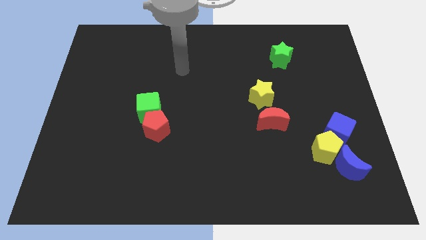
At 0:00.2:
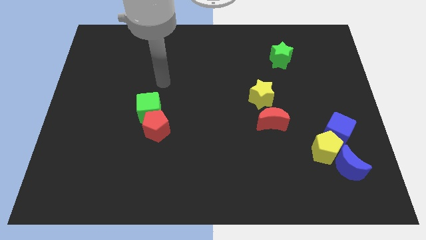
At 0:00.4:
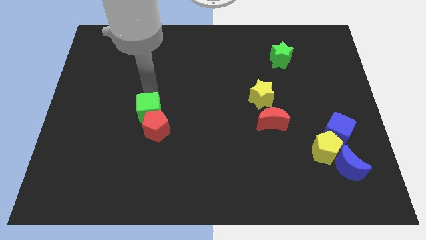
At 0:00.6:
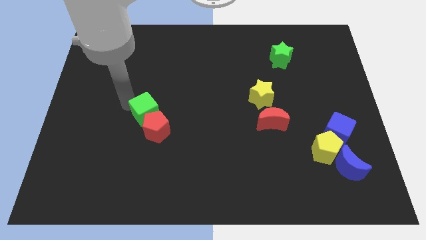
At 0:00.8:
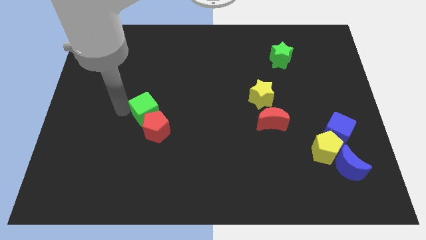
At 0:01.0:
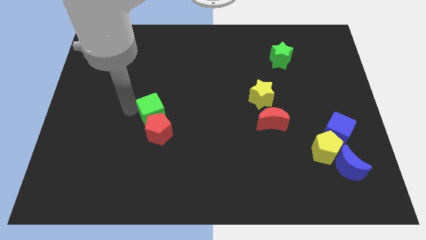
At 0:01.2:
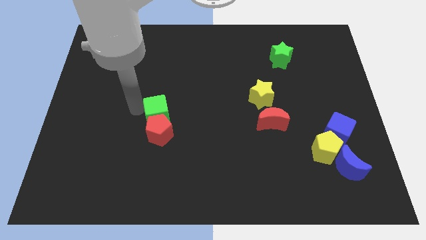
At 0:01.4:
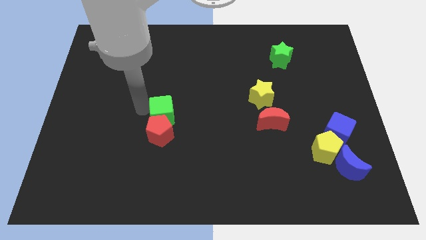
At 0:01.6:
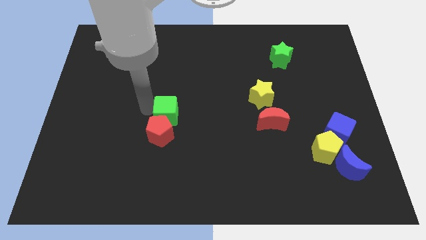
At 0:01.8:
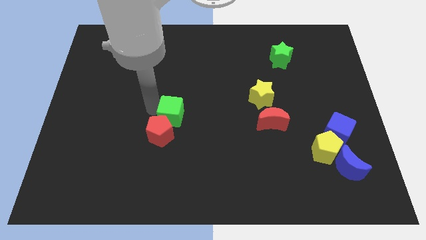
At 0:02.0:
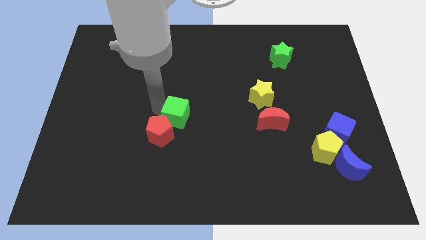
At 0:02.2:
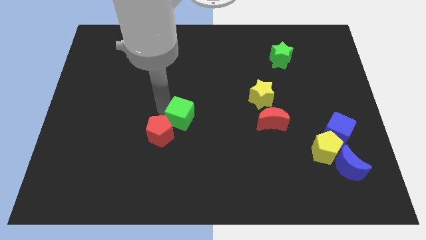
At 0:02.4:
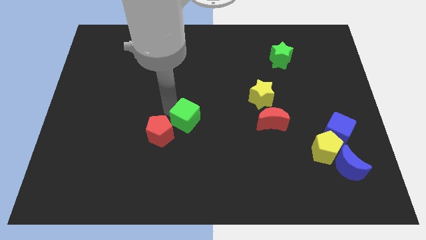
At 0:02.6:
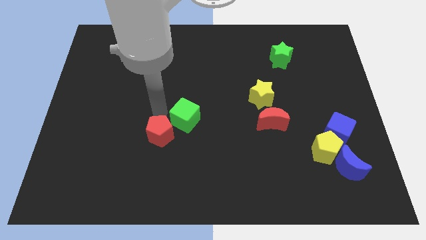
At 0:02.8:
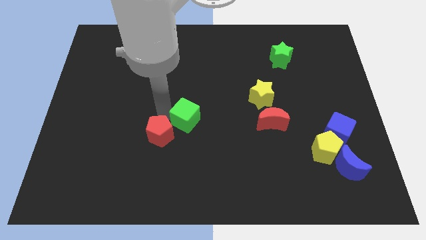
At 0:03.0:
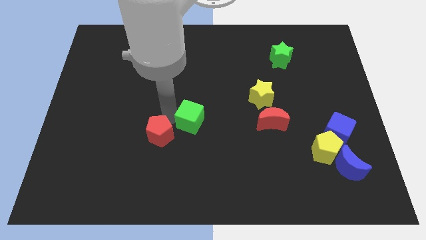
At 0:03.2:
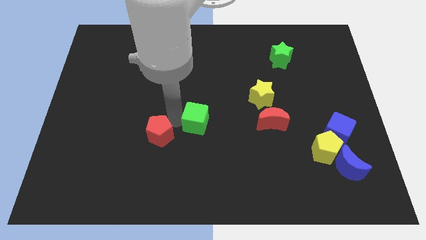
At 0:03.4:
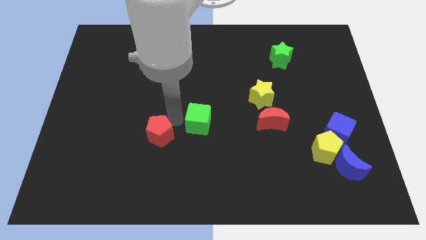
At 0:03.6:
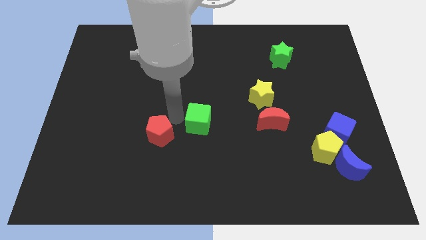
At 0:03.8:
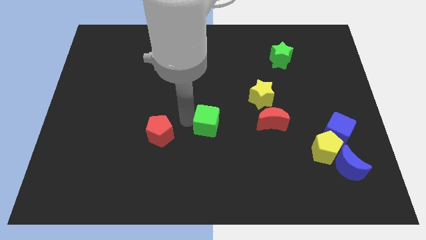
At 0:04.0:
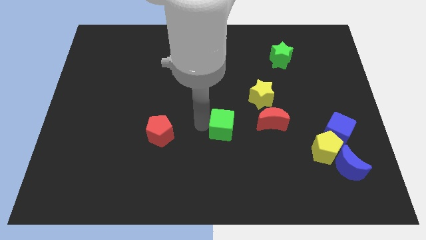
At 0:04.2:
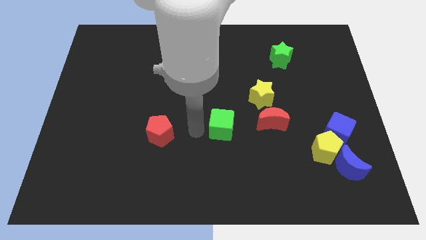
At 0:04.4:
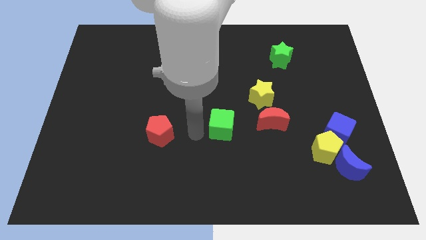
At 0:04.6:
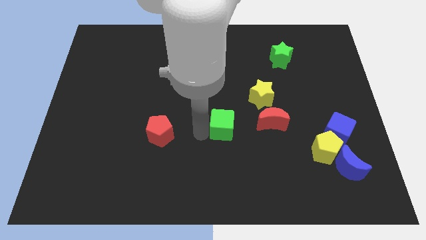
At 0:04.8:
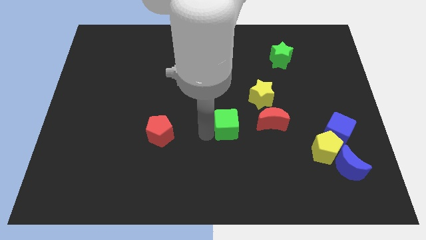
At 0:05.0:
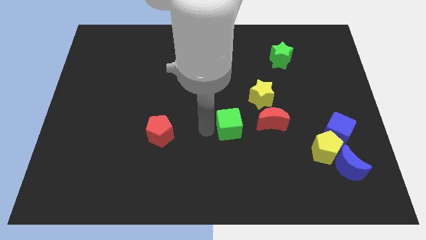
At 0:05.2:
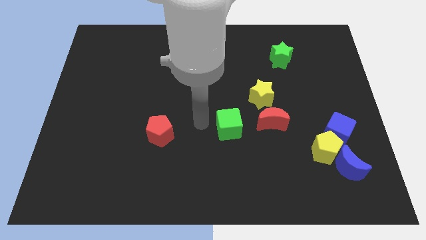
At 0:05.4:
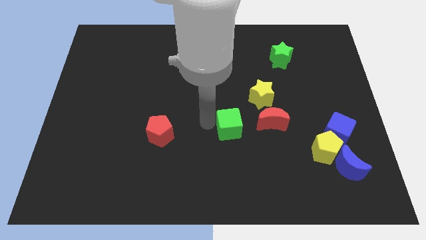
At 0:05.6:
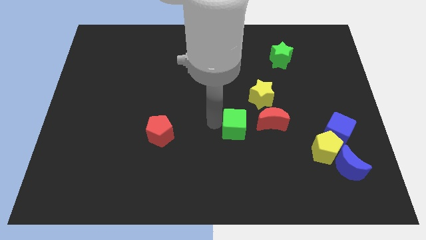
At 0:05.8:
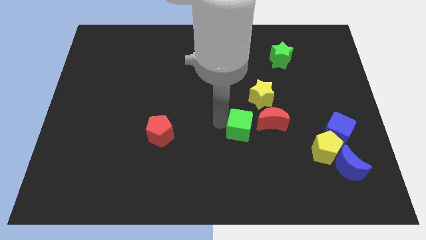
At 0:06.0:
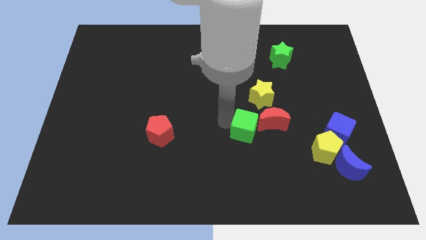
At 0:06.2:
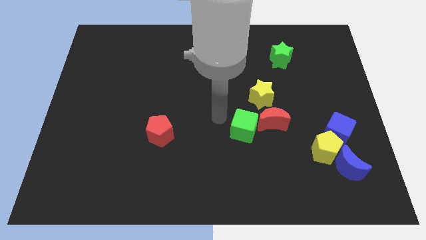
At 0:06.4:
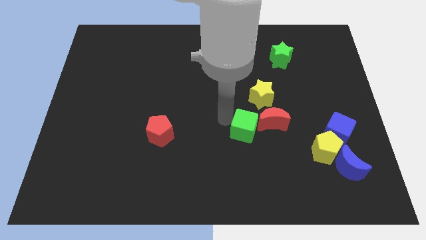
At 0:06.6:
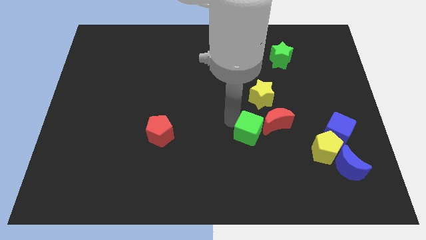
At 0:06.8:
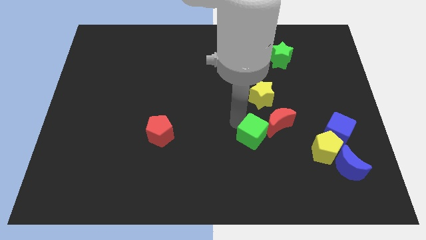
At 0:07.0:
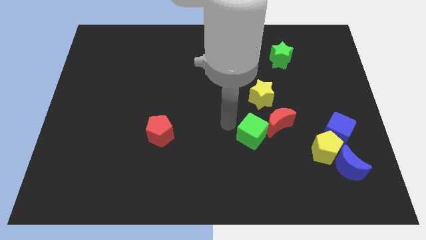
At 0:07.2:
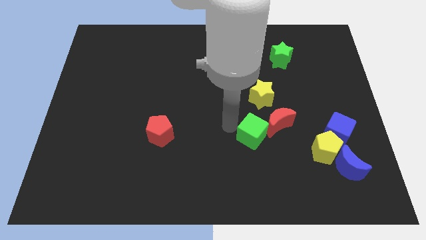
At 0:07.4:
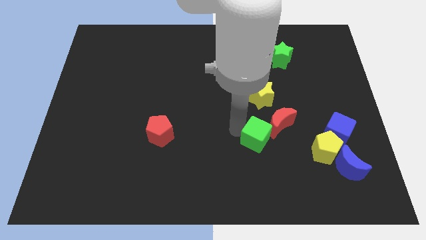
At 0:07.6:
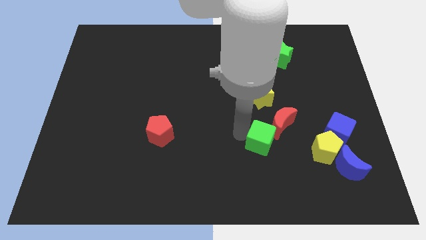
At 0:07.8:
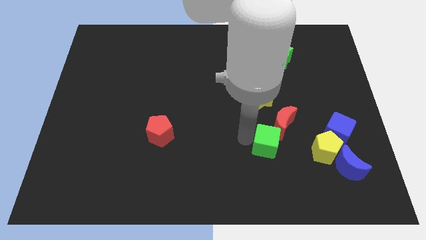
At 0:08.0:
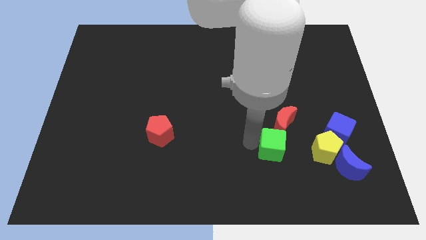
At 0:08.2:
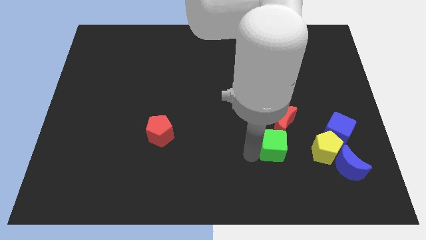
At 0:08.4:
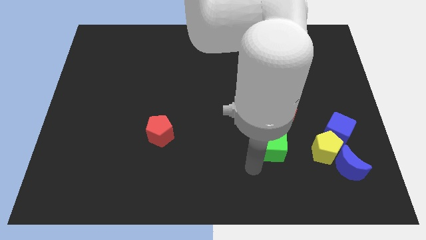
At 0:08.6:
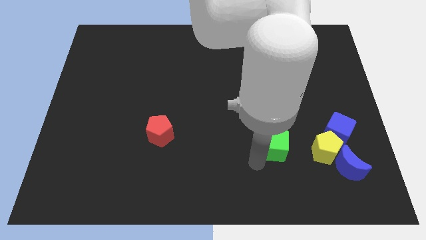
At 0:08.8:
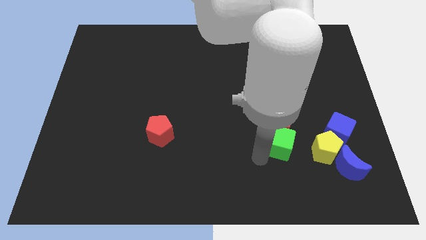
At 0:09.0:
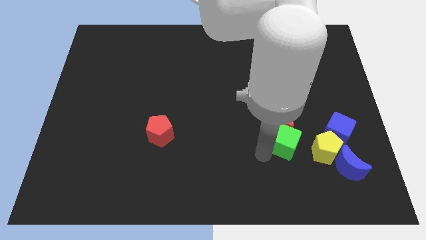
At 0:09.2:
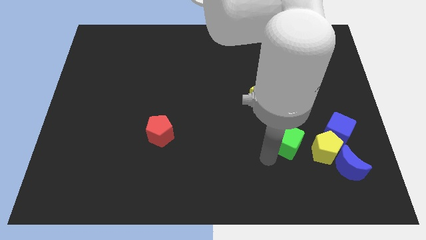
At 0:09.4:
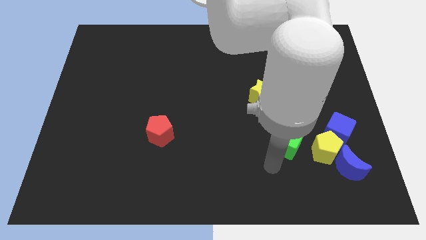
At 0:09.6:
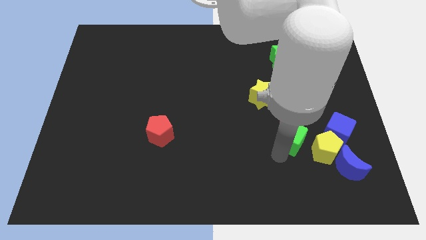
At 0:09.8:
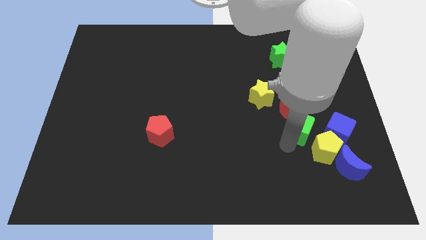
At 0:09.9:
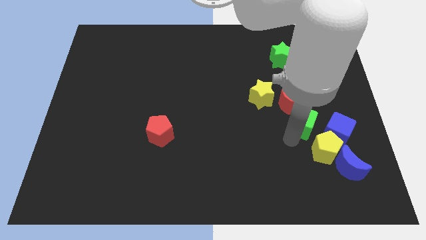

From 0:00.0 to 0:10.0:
push the green cube above the yellow pentagon

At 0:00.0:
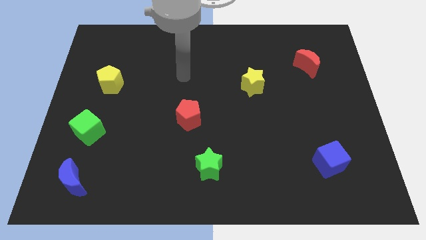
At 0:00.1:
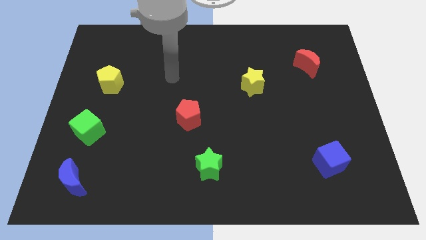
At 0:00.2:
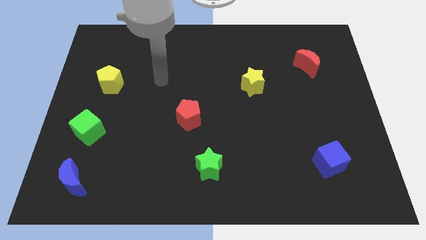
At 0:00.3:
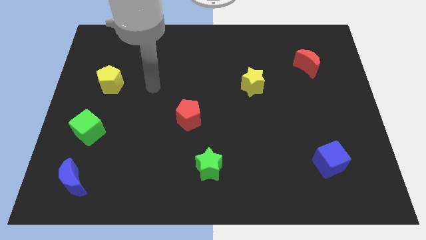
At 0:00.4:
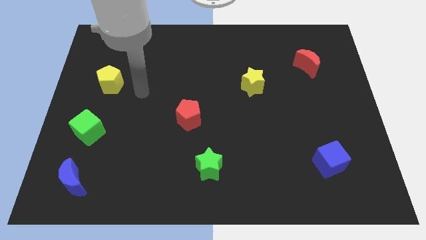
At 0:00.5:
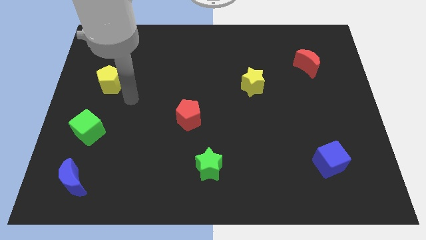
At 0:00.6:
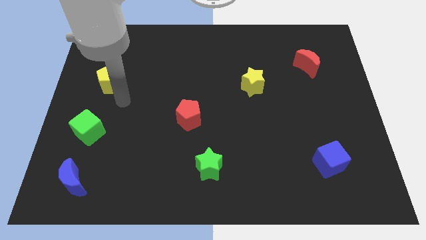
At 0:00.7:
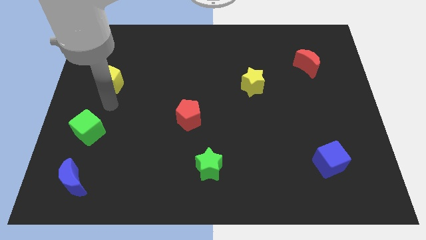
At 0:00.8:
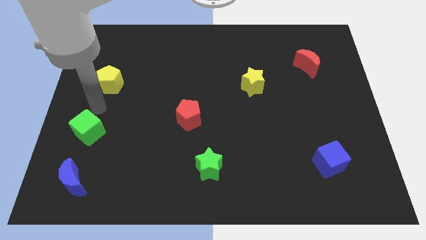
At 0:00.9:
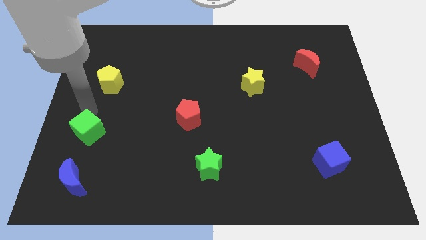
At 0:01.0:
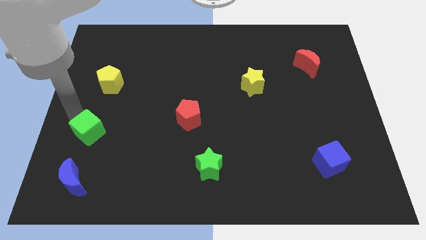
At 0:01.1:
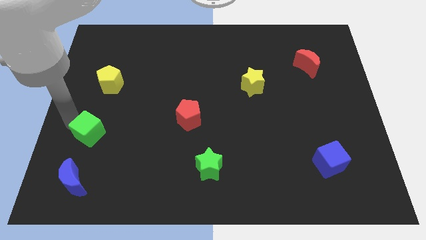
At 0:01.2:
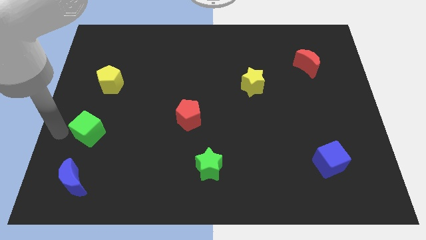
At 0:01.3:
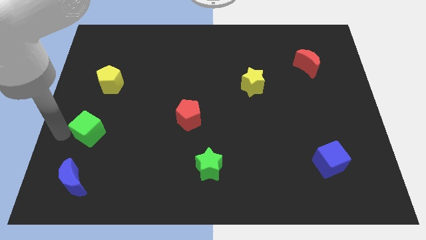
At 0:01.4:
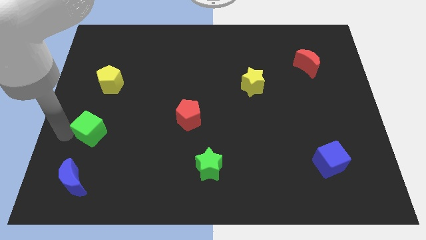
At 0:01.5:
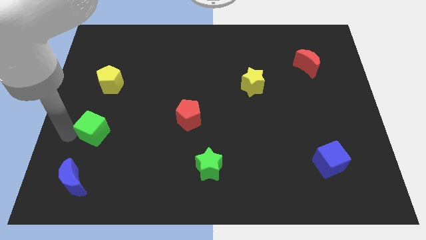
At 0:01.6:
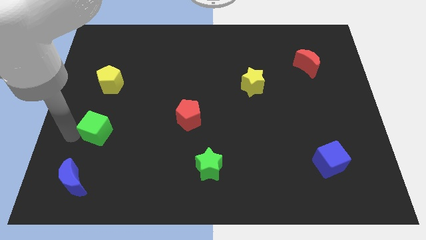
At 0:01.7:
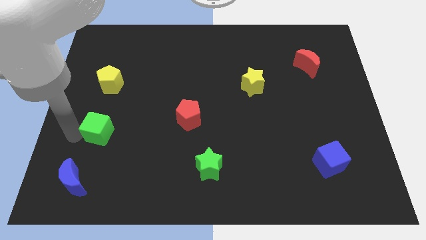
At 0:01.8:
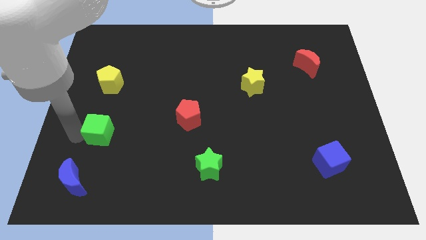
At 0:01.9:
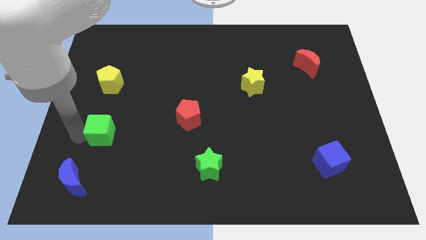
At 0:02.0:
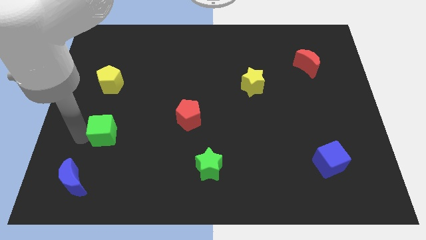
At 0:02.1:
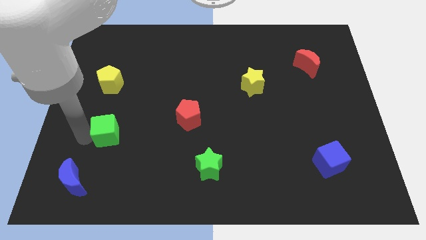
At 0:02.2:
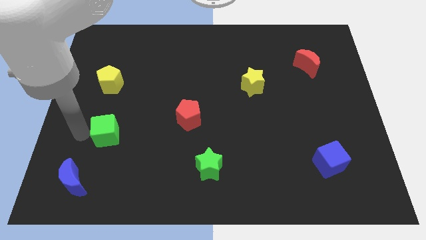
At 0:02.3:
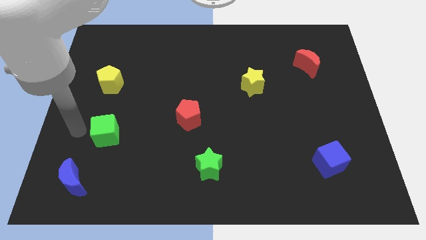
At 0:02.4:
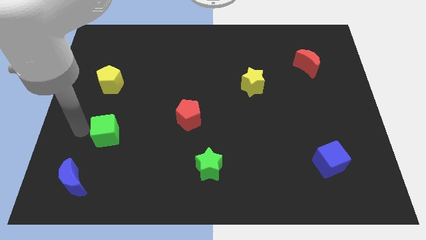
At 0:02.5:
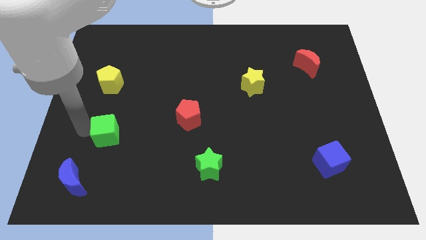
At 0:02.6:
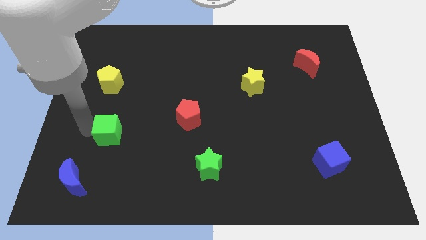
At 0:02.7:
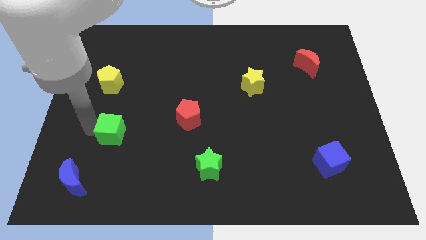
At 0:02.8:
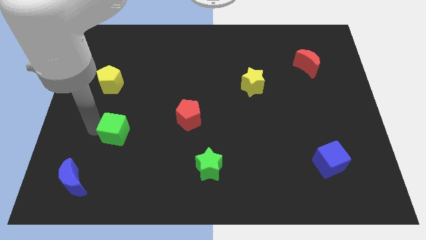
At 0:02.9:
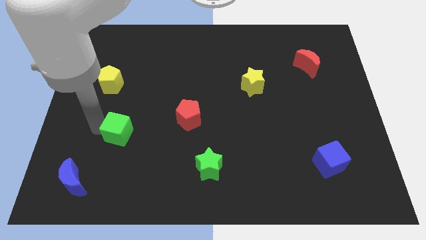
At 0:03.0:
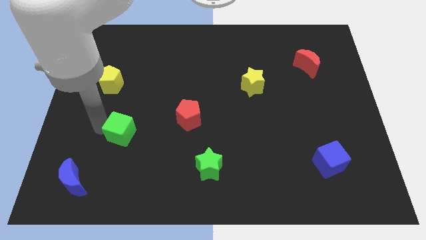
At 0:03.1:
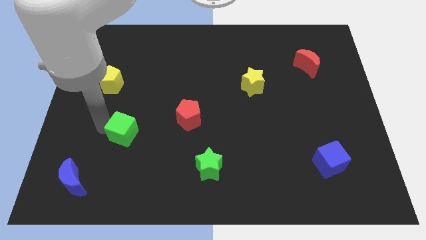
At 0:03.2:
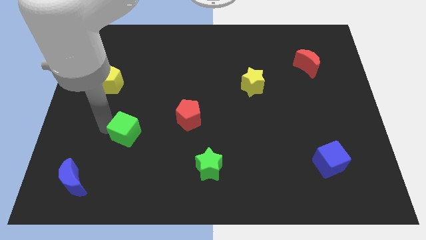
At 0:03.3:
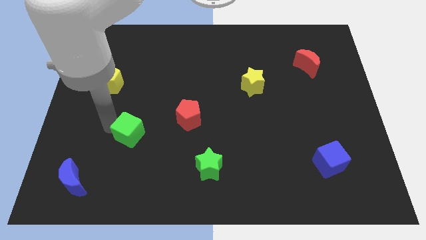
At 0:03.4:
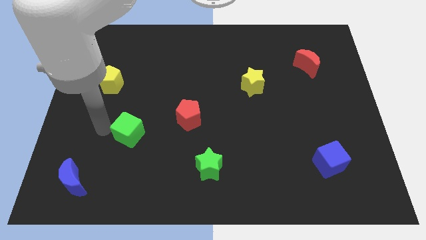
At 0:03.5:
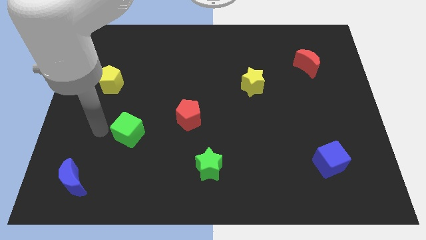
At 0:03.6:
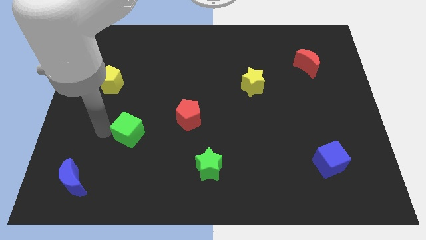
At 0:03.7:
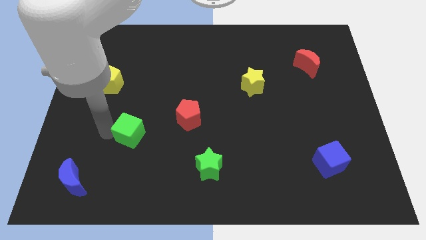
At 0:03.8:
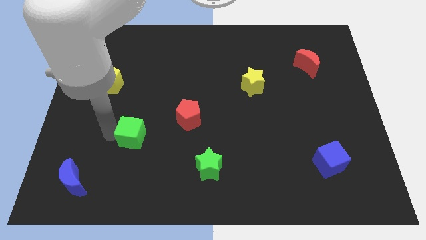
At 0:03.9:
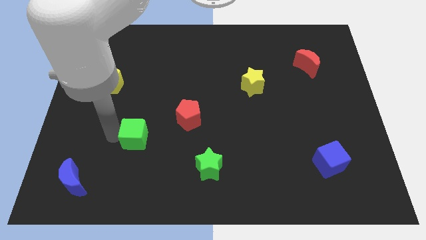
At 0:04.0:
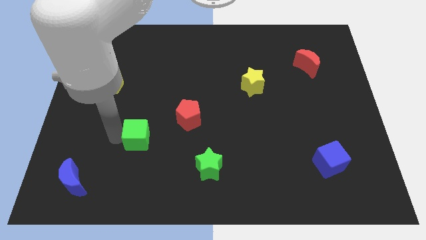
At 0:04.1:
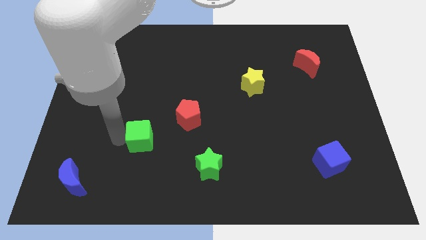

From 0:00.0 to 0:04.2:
move the green cube to the bottom left side of the red pentagon
